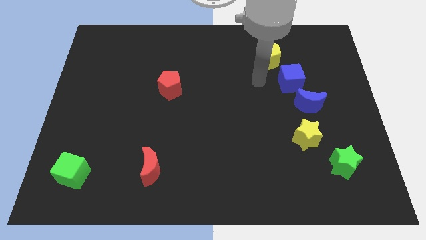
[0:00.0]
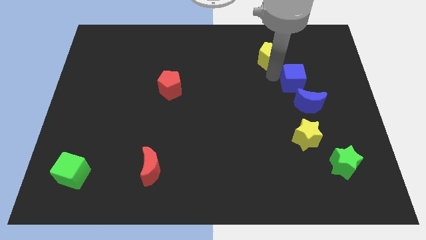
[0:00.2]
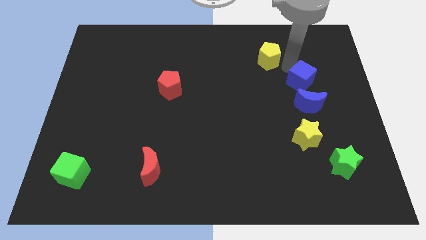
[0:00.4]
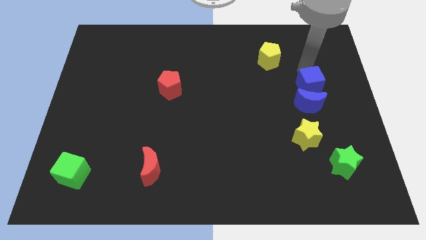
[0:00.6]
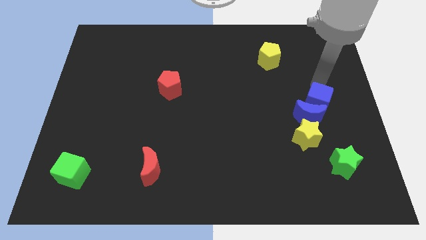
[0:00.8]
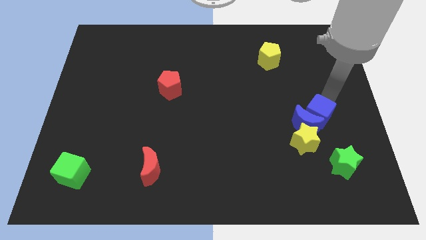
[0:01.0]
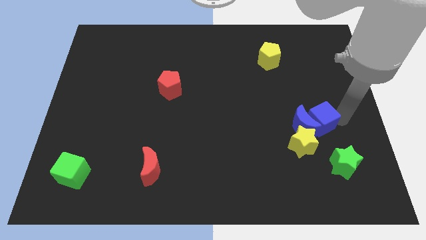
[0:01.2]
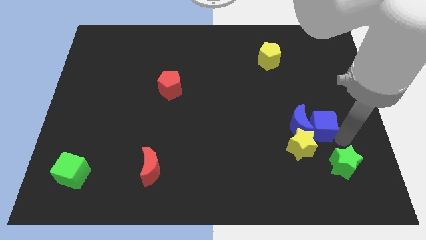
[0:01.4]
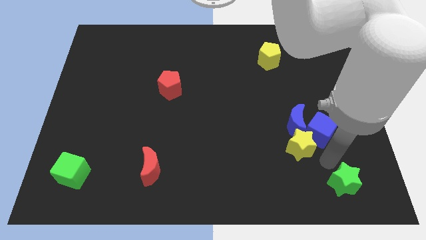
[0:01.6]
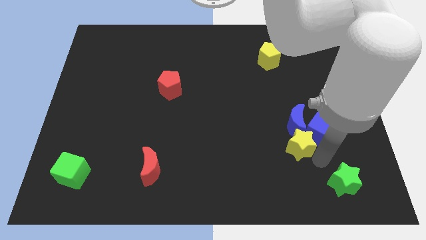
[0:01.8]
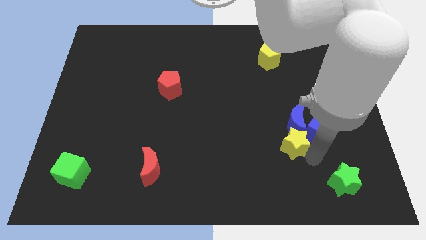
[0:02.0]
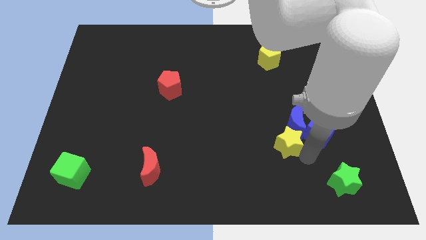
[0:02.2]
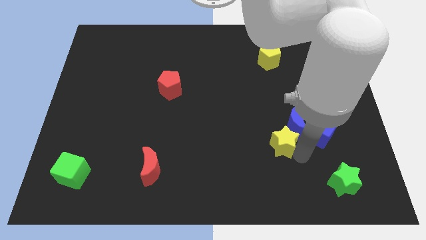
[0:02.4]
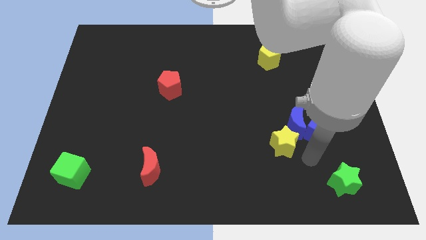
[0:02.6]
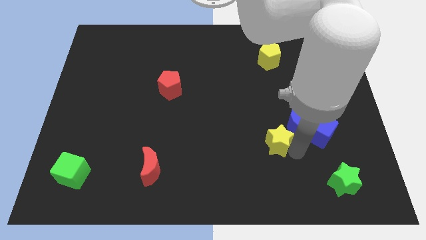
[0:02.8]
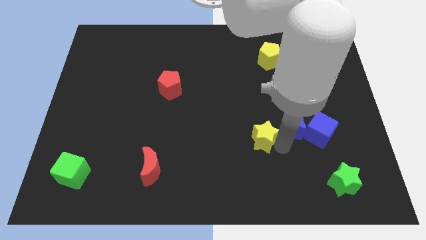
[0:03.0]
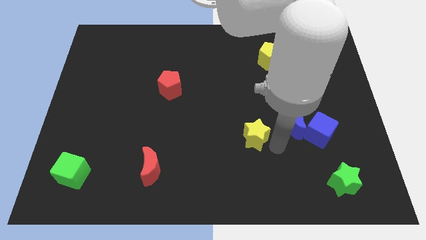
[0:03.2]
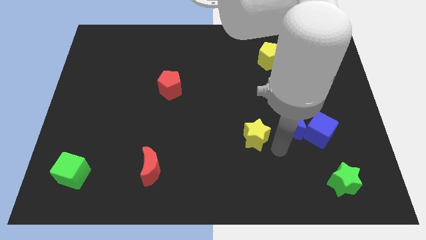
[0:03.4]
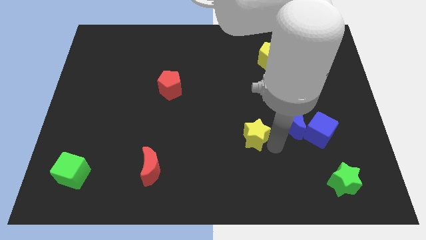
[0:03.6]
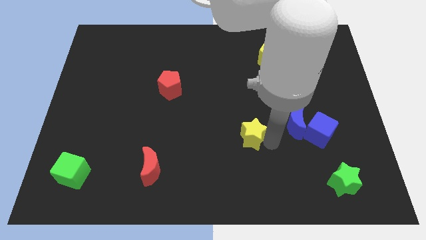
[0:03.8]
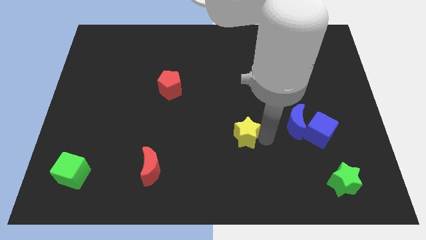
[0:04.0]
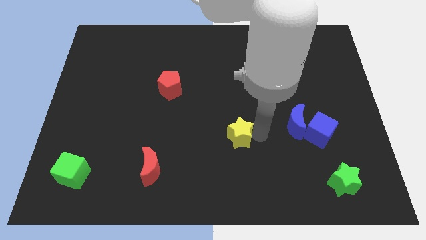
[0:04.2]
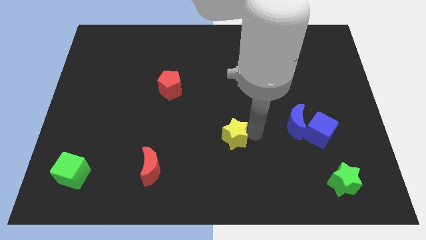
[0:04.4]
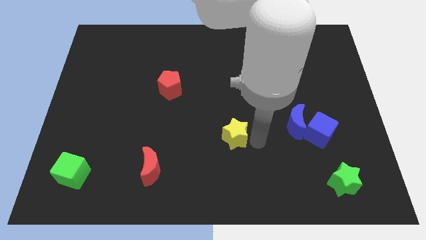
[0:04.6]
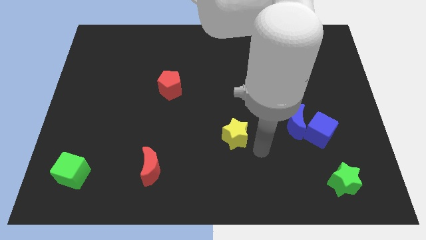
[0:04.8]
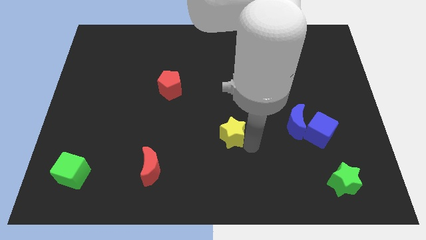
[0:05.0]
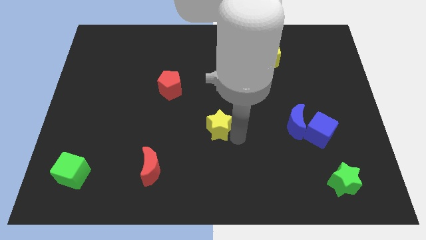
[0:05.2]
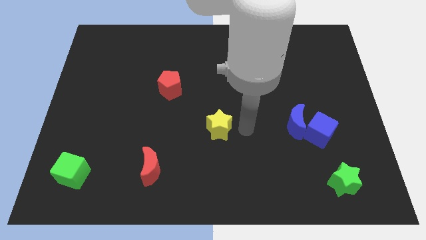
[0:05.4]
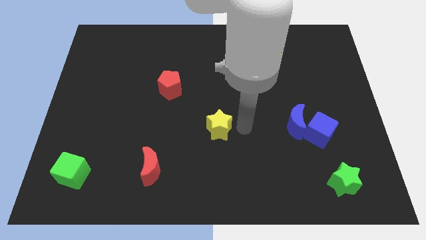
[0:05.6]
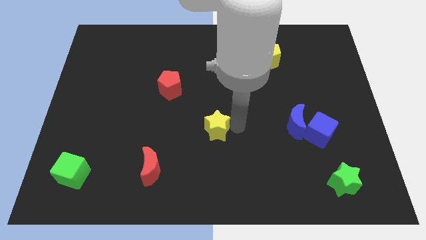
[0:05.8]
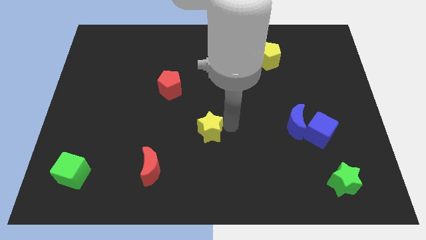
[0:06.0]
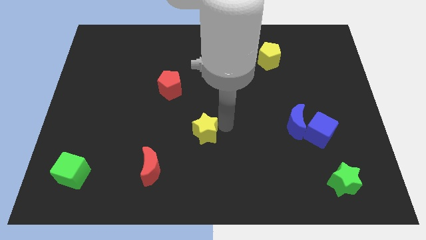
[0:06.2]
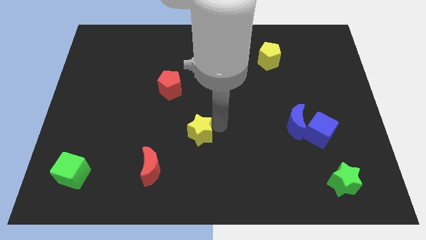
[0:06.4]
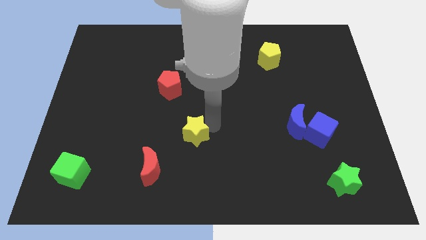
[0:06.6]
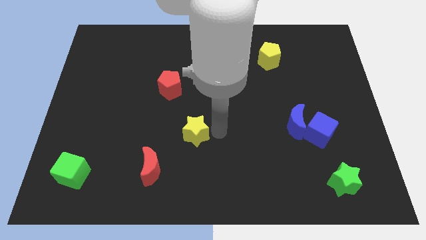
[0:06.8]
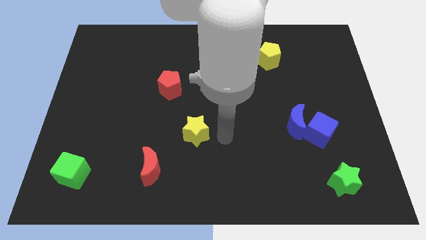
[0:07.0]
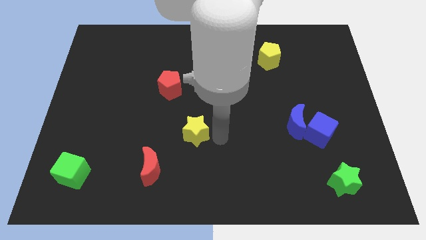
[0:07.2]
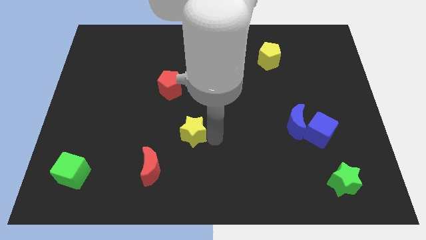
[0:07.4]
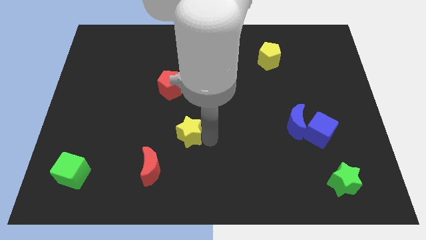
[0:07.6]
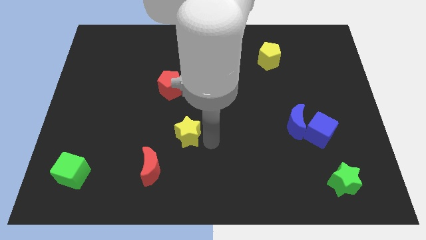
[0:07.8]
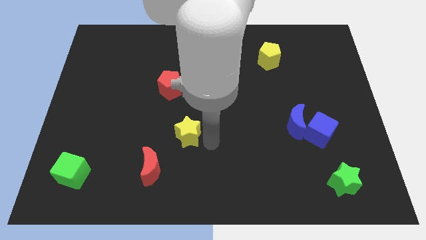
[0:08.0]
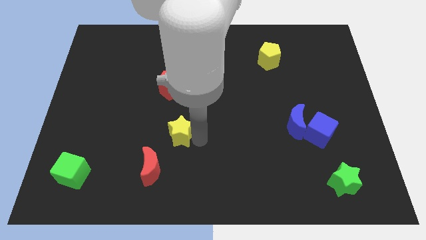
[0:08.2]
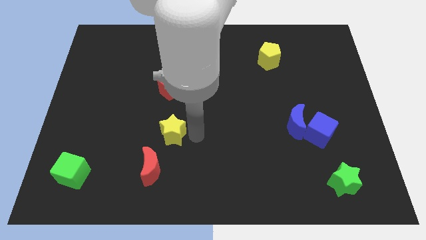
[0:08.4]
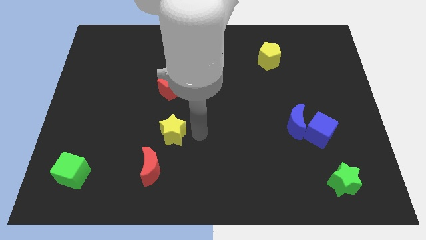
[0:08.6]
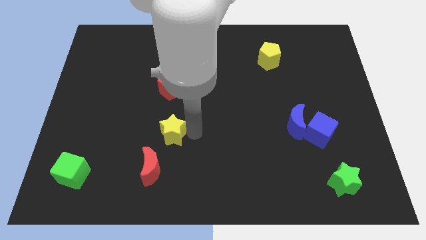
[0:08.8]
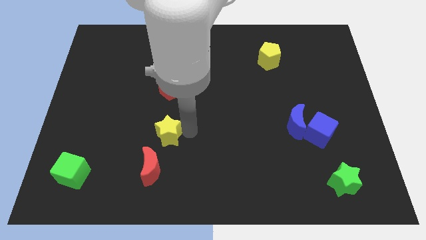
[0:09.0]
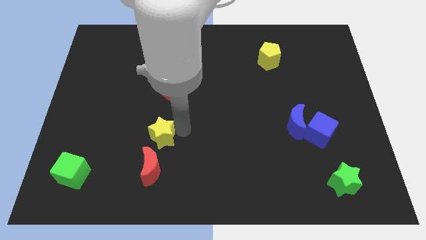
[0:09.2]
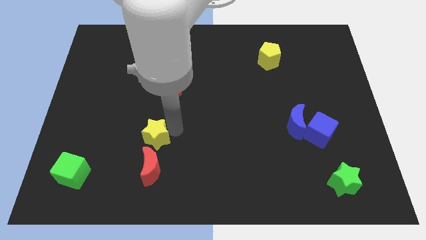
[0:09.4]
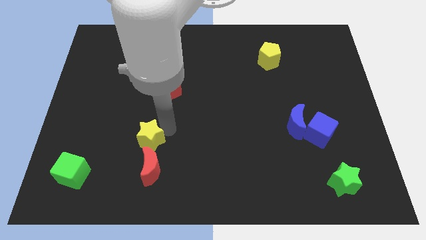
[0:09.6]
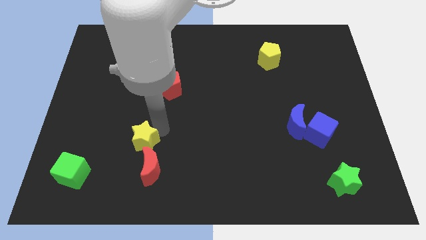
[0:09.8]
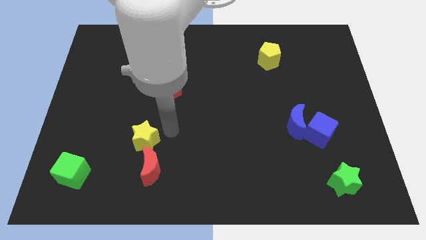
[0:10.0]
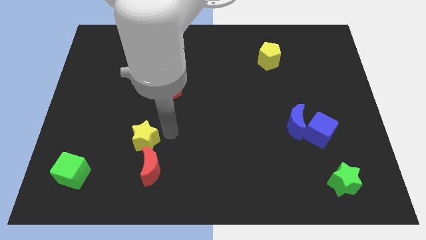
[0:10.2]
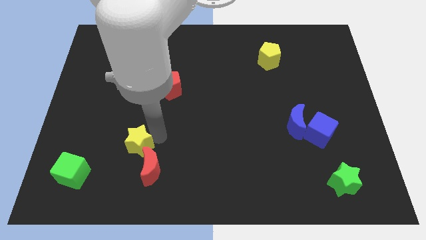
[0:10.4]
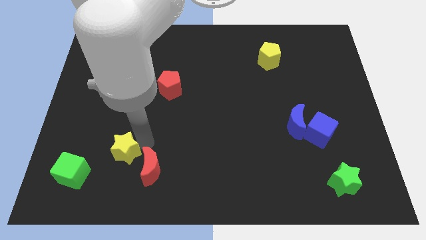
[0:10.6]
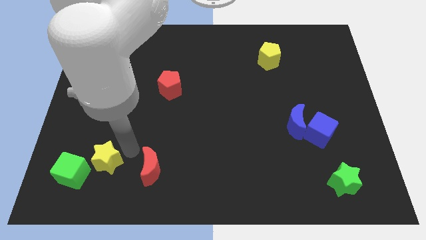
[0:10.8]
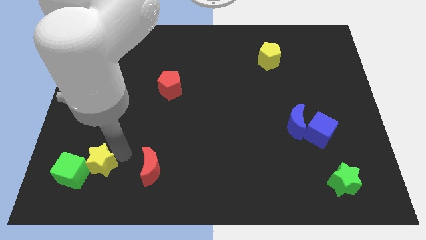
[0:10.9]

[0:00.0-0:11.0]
move the yellow star close to the green cube
